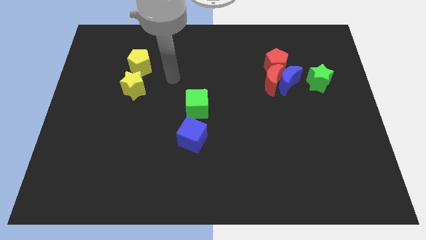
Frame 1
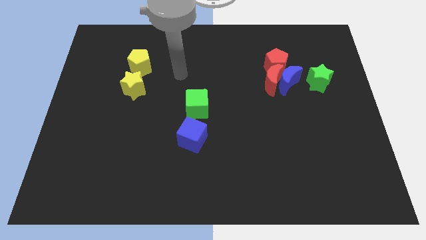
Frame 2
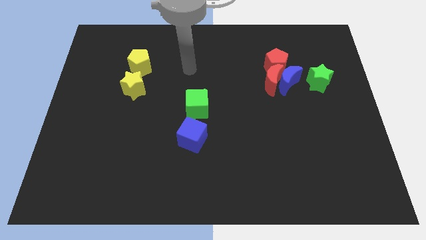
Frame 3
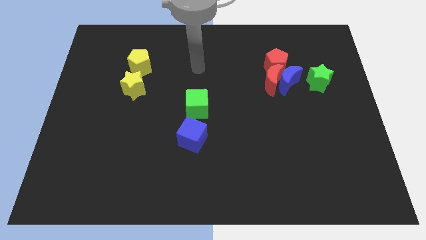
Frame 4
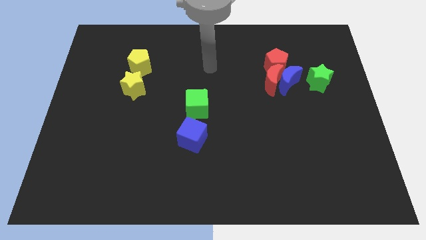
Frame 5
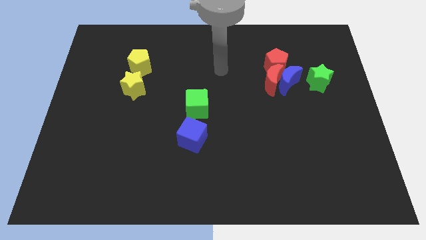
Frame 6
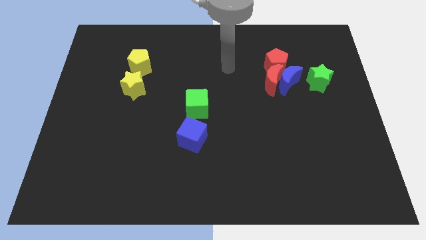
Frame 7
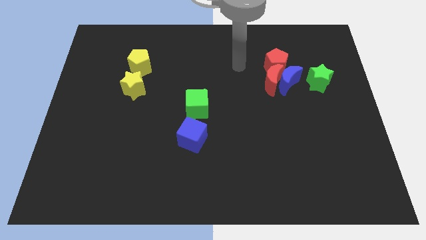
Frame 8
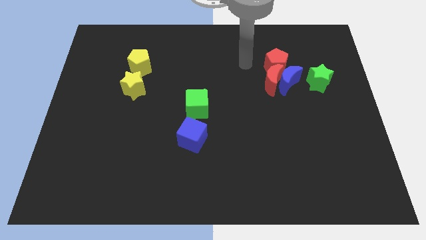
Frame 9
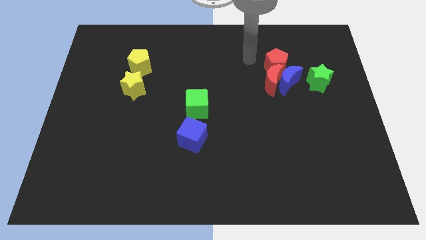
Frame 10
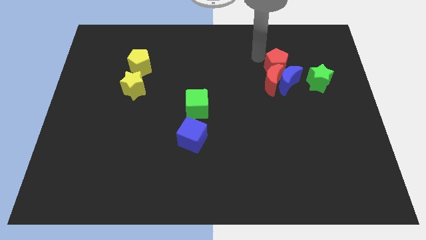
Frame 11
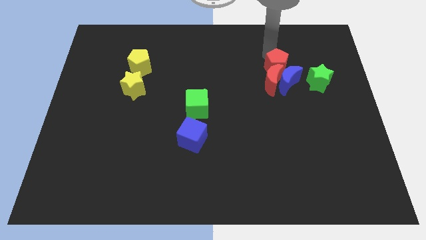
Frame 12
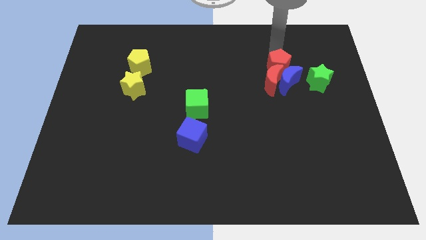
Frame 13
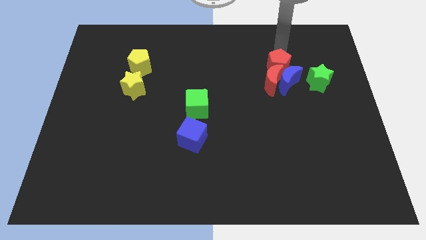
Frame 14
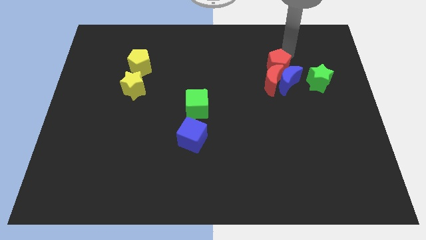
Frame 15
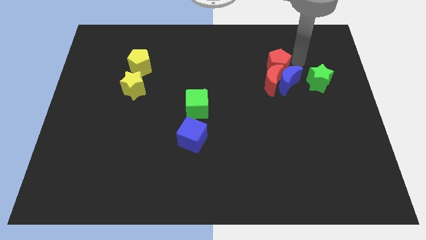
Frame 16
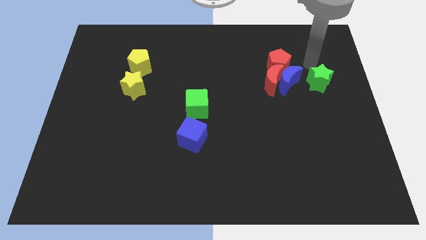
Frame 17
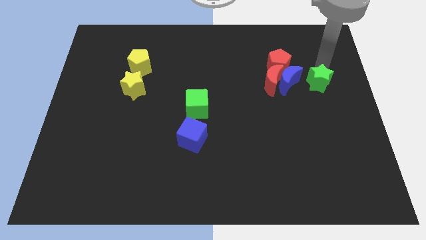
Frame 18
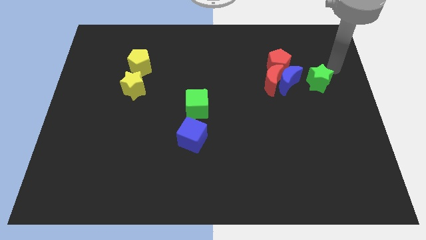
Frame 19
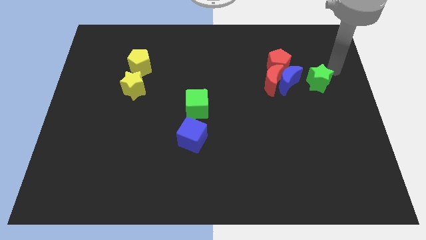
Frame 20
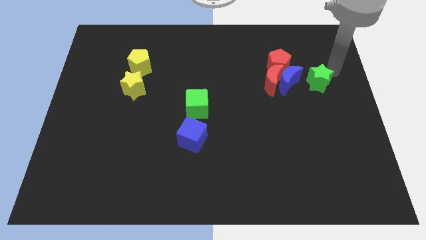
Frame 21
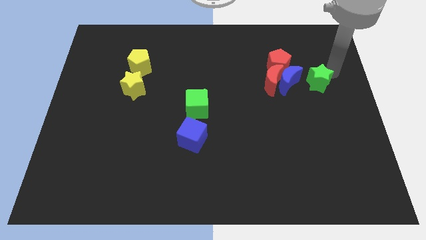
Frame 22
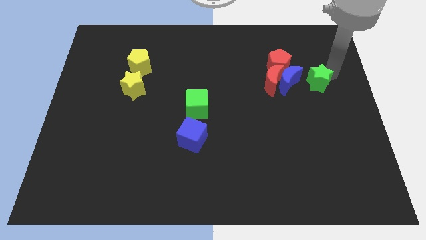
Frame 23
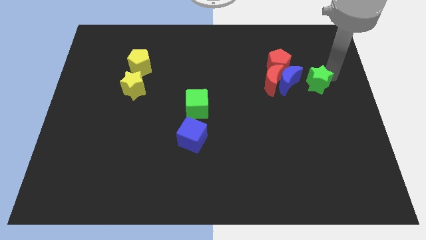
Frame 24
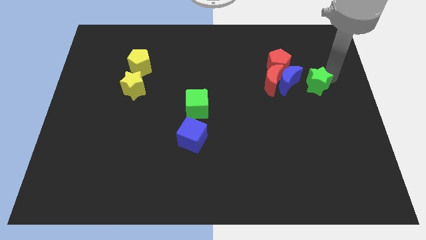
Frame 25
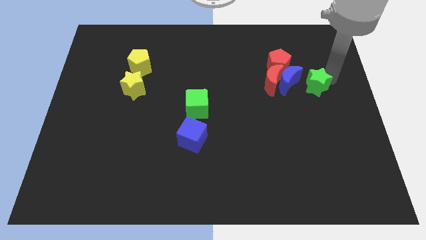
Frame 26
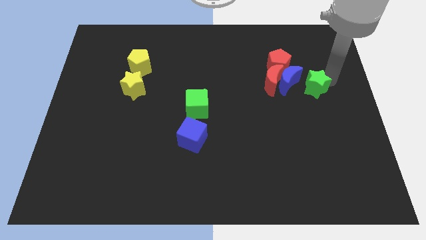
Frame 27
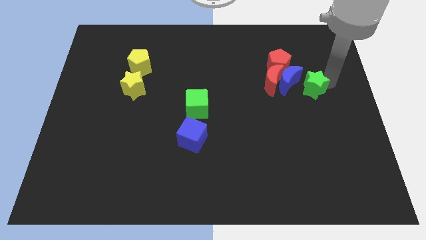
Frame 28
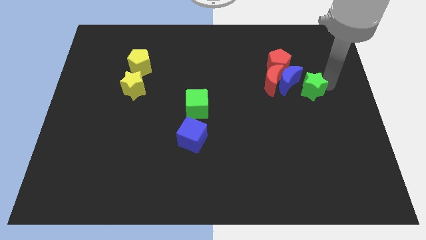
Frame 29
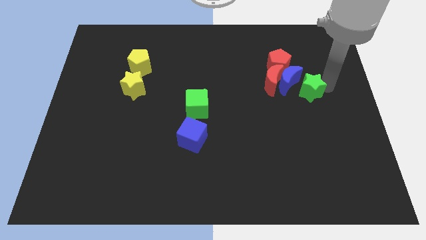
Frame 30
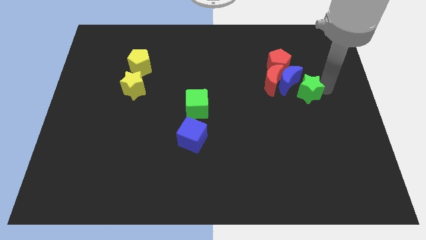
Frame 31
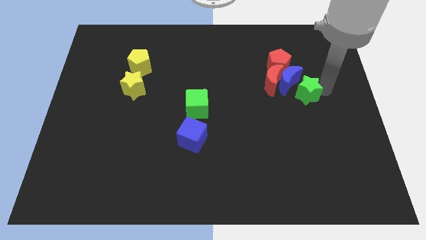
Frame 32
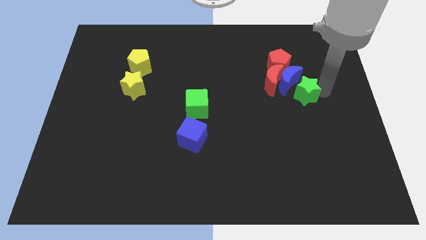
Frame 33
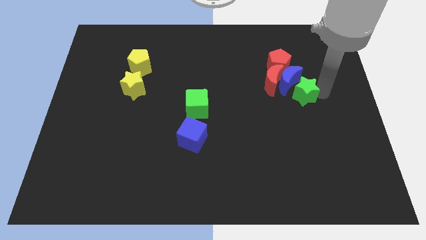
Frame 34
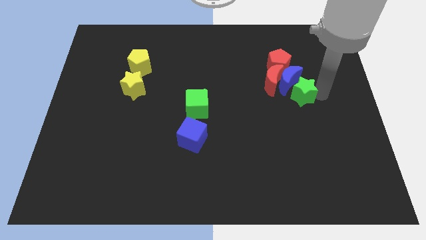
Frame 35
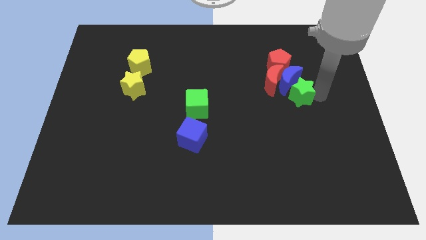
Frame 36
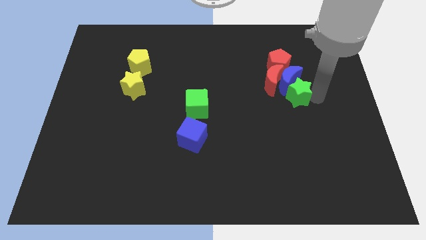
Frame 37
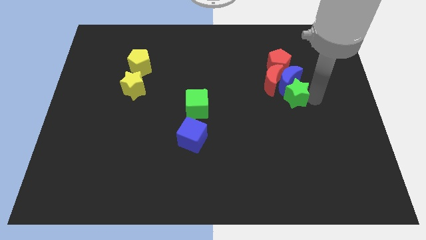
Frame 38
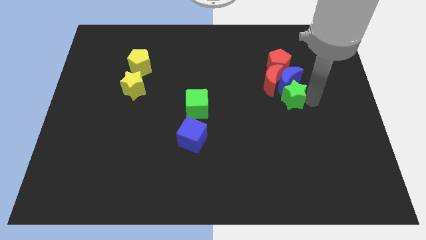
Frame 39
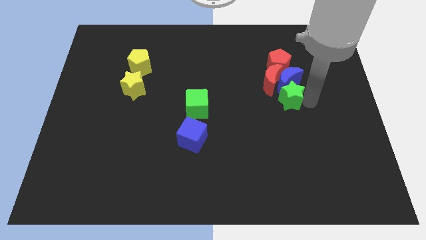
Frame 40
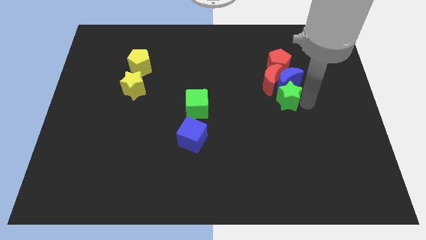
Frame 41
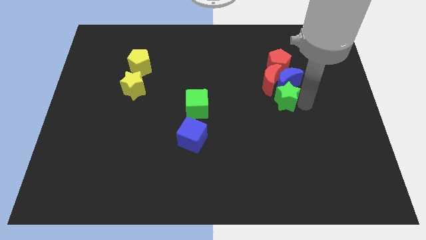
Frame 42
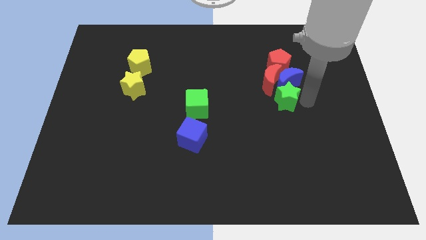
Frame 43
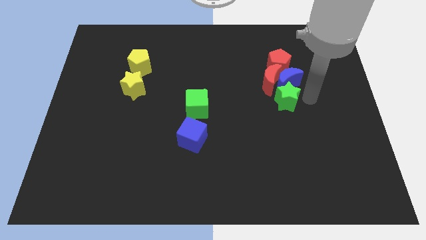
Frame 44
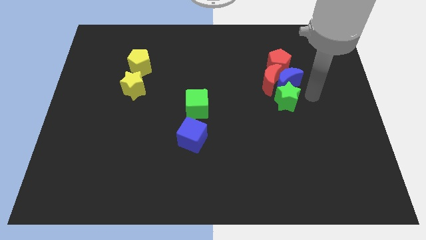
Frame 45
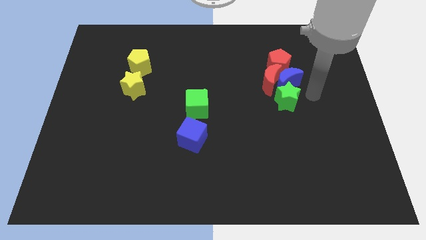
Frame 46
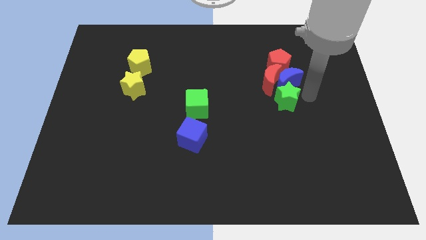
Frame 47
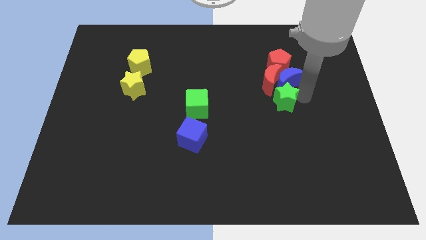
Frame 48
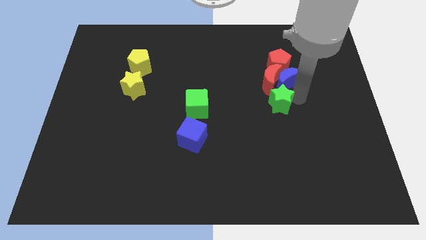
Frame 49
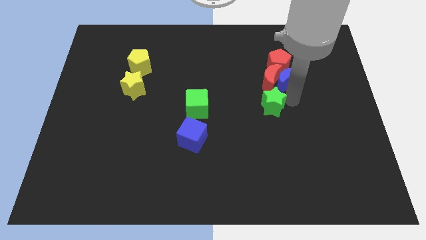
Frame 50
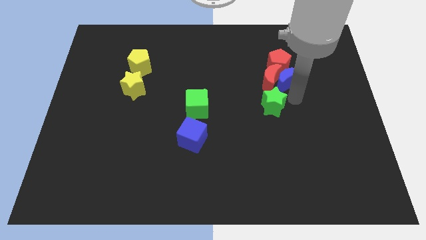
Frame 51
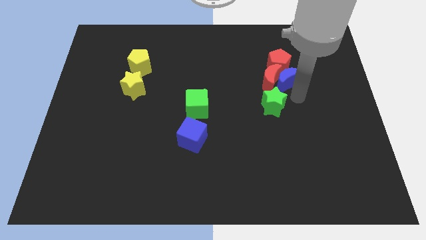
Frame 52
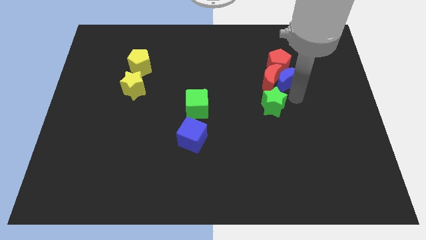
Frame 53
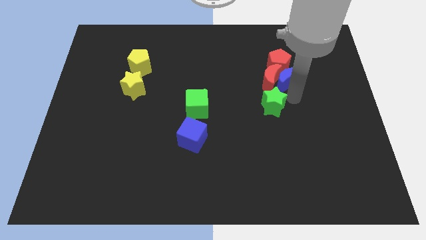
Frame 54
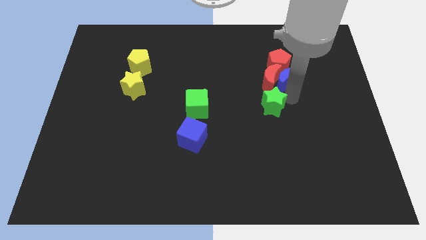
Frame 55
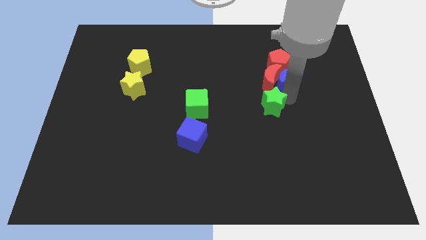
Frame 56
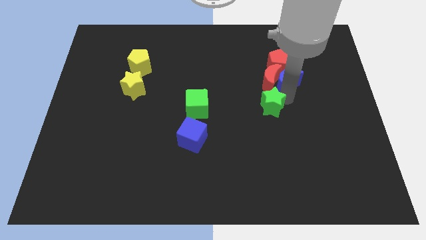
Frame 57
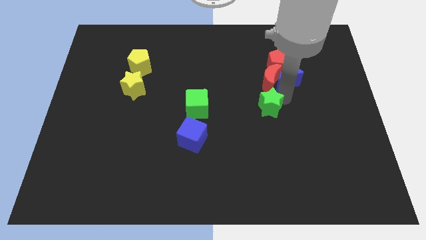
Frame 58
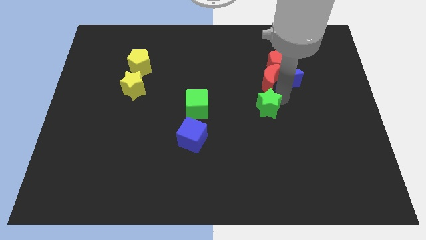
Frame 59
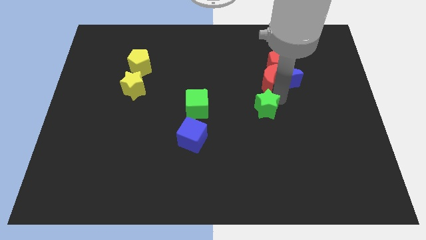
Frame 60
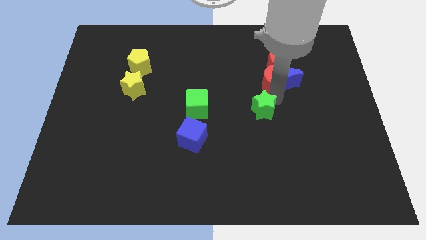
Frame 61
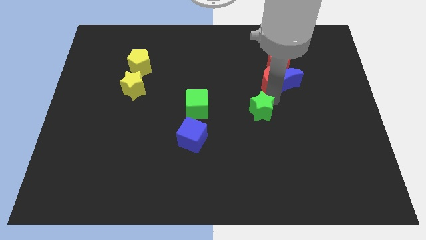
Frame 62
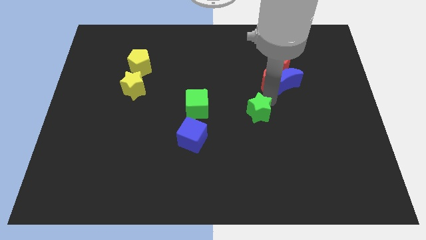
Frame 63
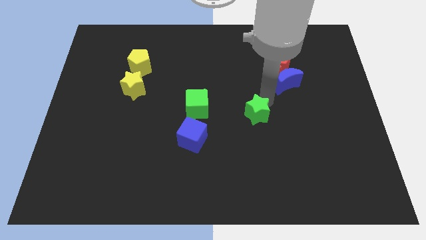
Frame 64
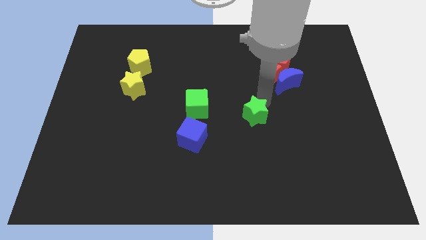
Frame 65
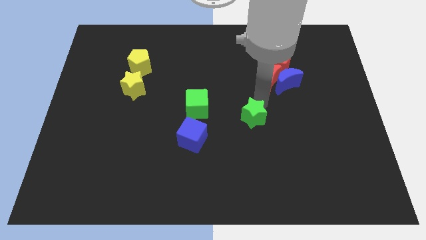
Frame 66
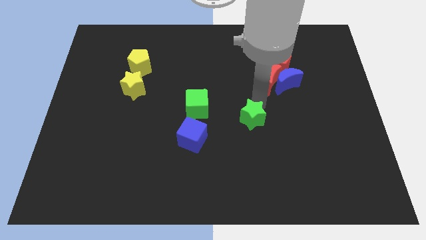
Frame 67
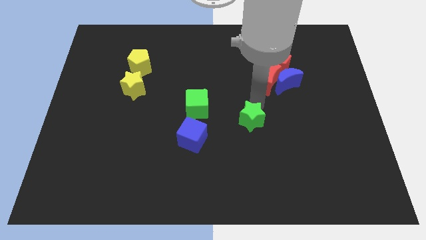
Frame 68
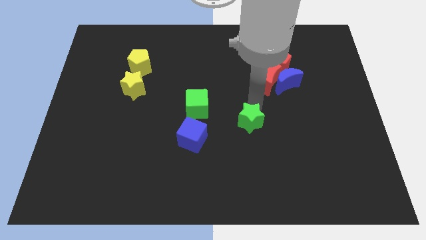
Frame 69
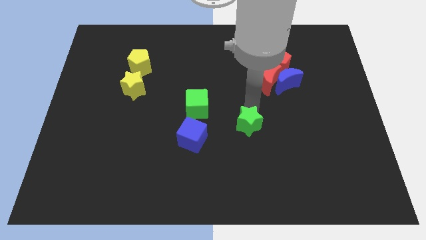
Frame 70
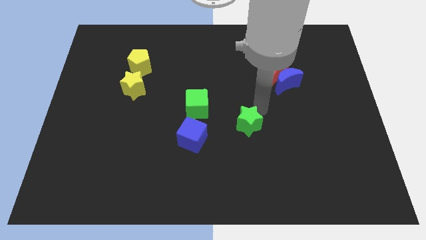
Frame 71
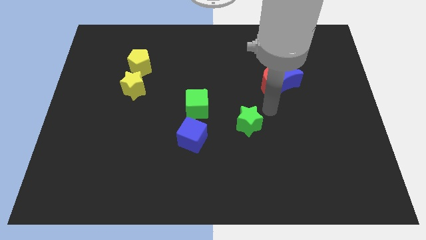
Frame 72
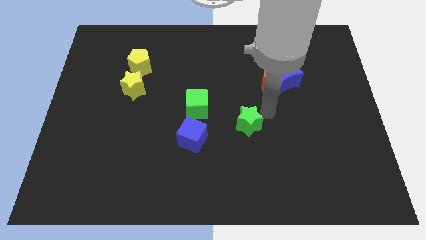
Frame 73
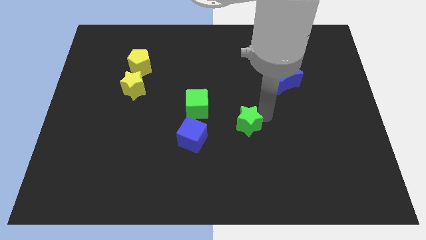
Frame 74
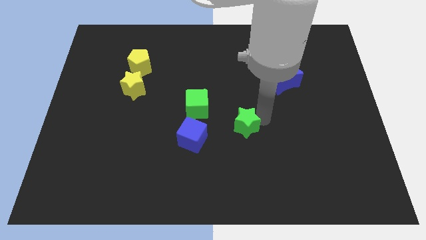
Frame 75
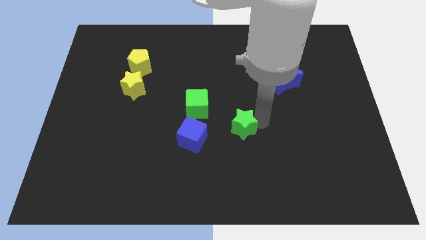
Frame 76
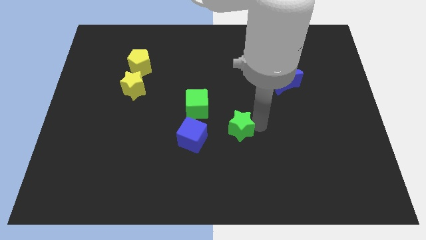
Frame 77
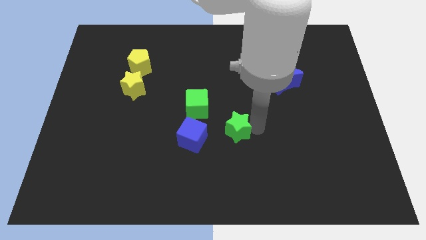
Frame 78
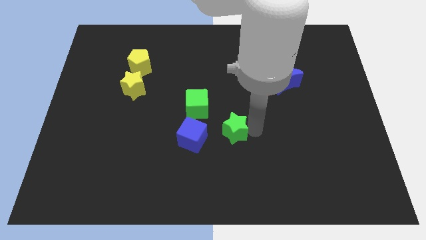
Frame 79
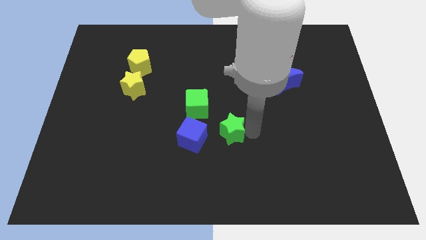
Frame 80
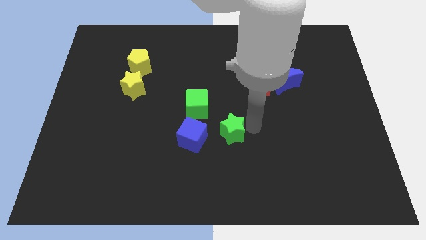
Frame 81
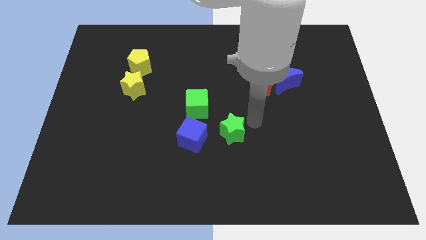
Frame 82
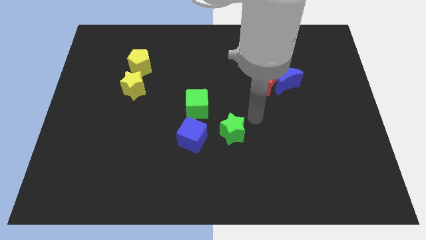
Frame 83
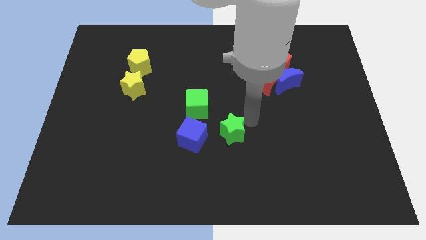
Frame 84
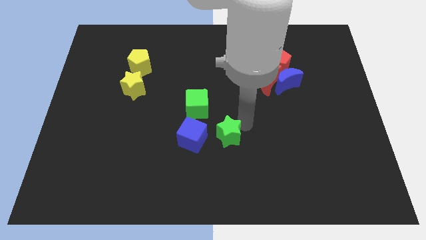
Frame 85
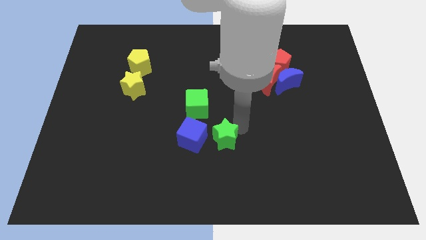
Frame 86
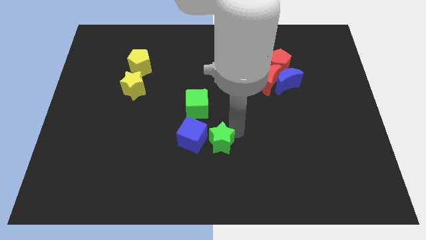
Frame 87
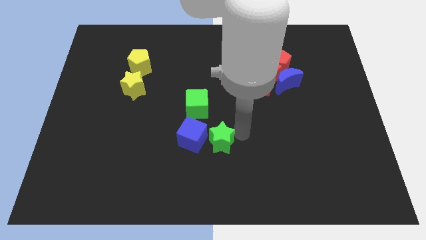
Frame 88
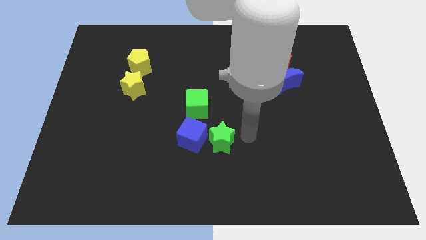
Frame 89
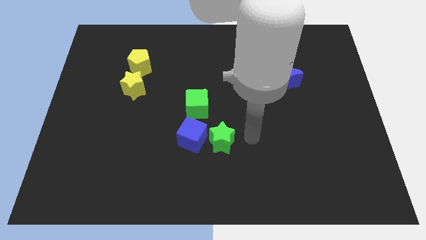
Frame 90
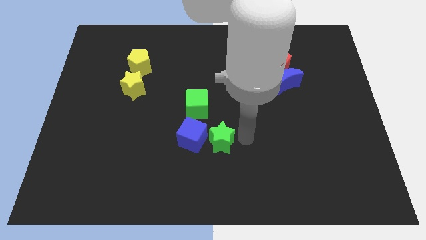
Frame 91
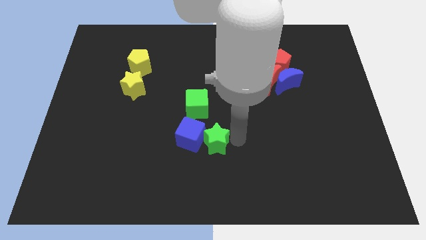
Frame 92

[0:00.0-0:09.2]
slide the green star to the bottom side of the green cube
